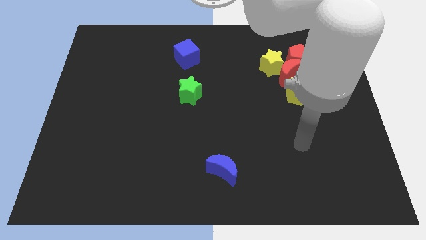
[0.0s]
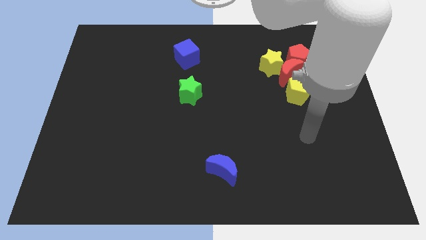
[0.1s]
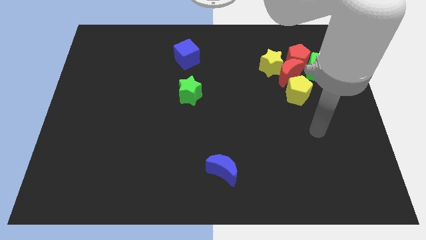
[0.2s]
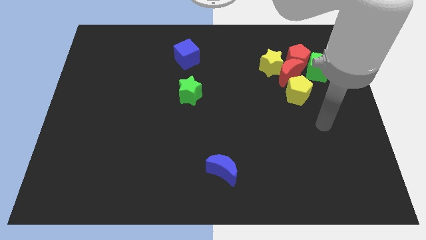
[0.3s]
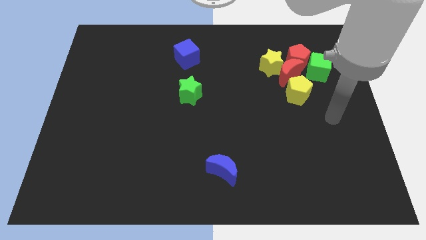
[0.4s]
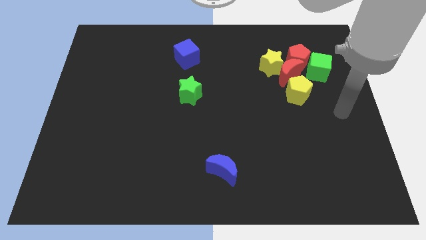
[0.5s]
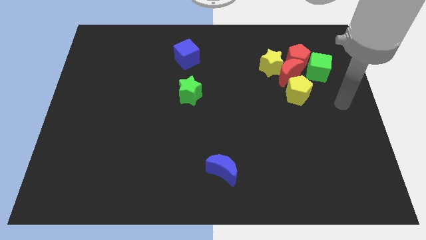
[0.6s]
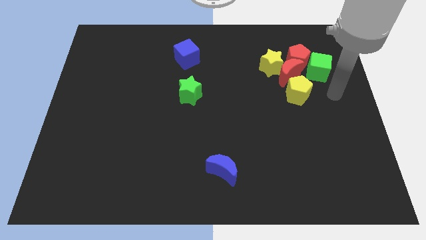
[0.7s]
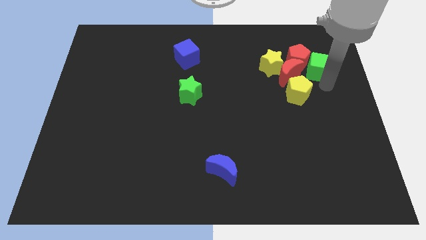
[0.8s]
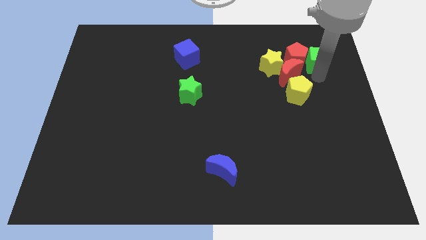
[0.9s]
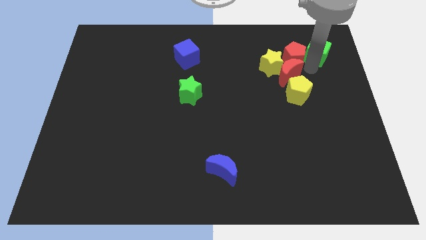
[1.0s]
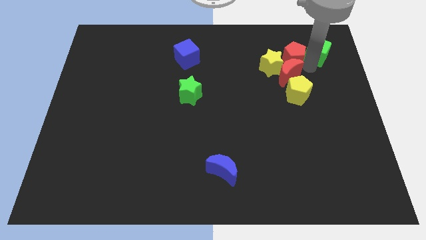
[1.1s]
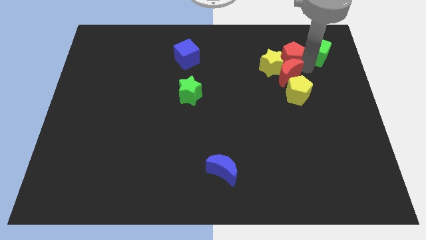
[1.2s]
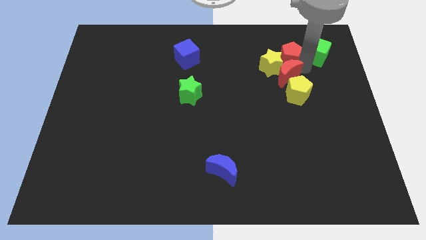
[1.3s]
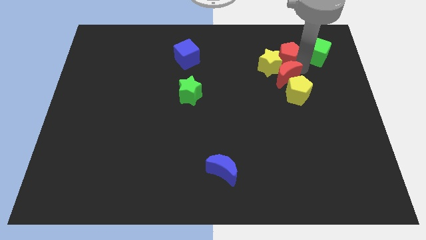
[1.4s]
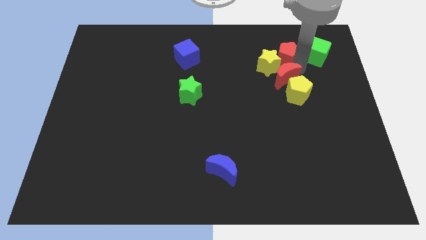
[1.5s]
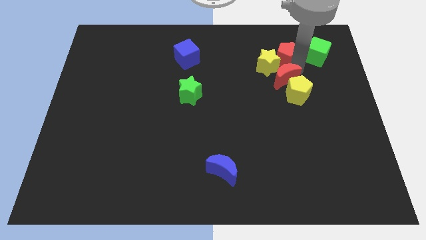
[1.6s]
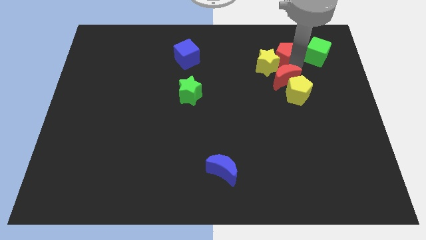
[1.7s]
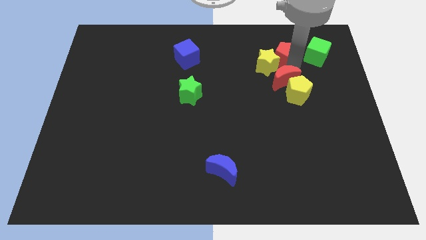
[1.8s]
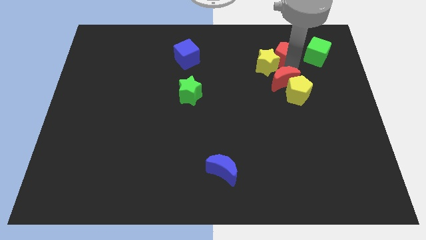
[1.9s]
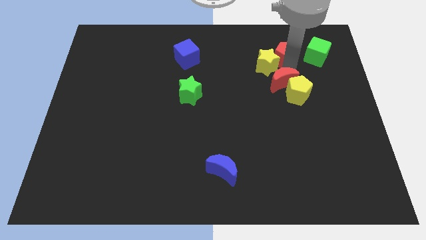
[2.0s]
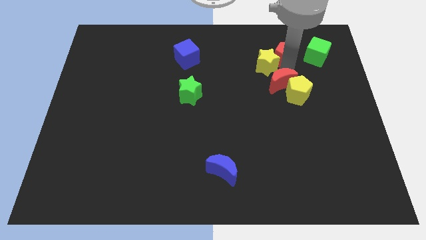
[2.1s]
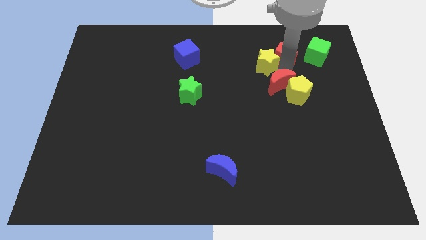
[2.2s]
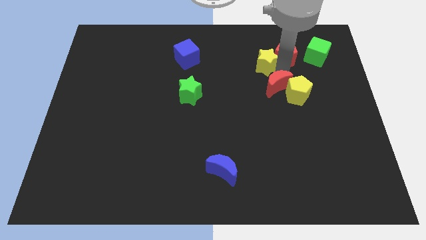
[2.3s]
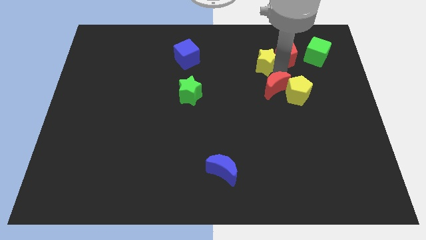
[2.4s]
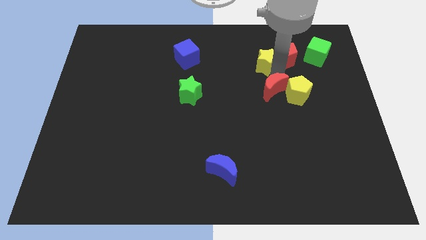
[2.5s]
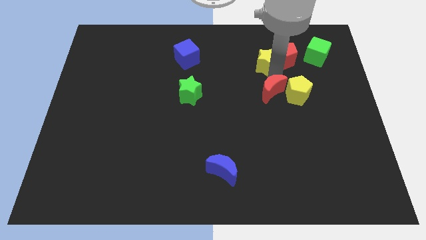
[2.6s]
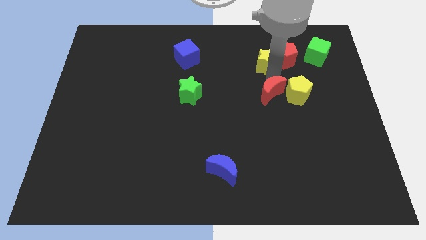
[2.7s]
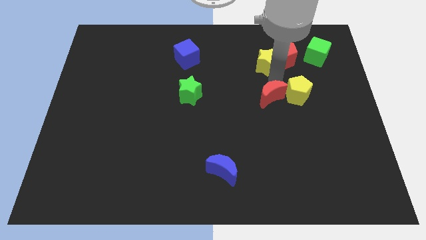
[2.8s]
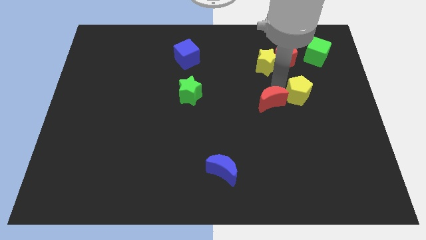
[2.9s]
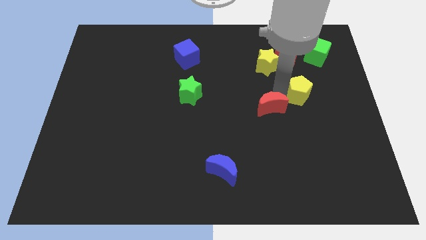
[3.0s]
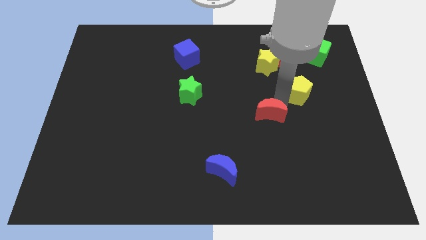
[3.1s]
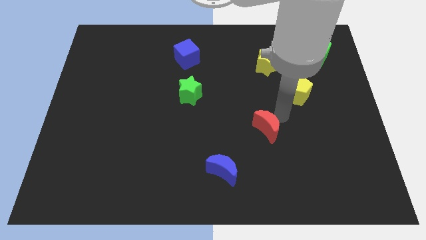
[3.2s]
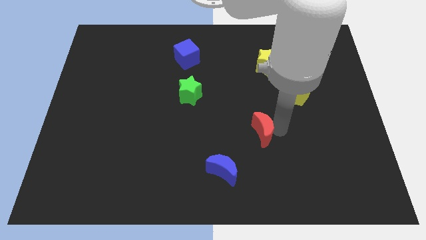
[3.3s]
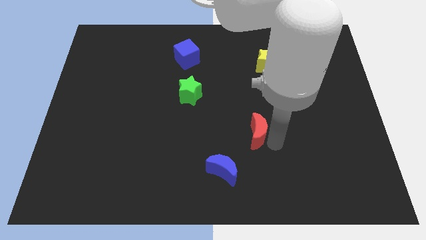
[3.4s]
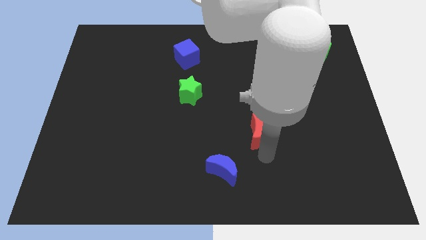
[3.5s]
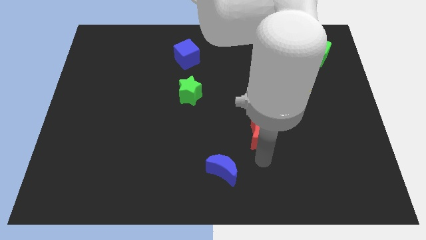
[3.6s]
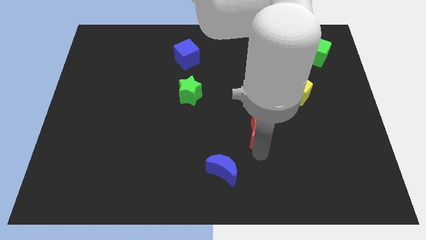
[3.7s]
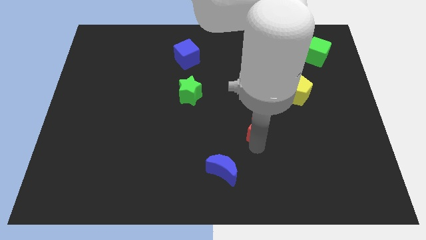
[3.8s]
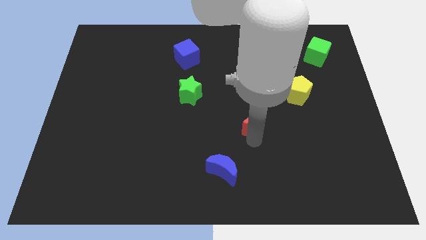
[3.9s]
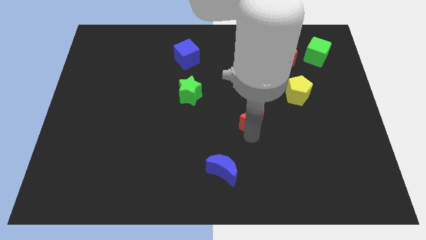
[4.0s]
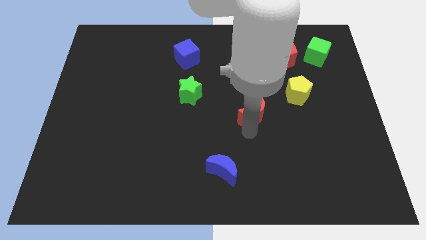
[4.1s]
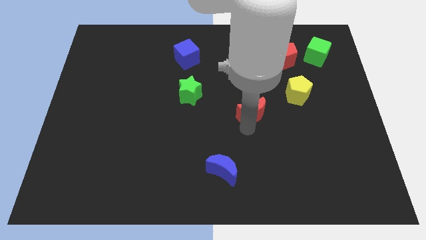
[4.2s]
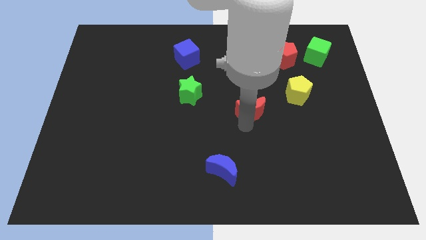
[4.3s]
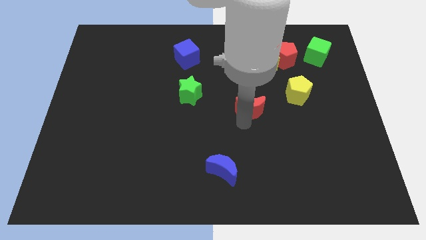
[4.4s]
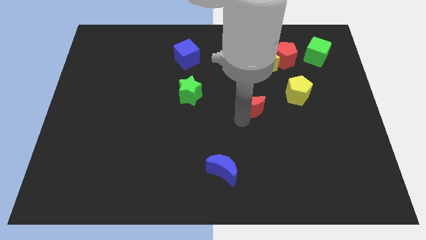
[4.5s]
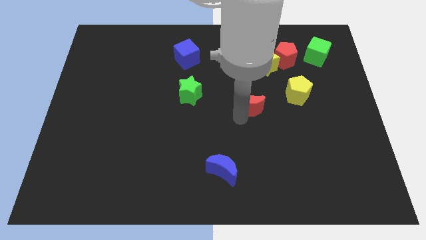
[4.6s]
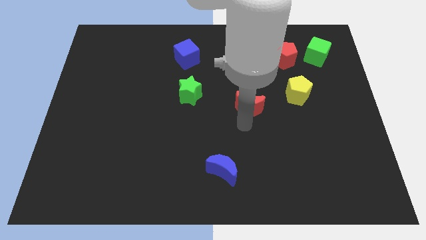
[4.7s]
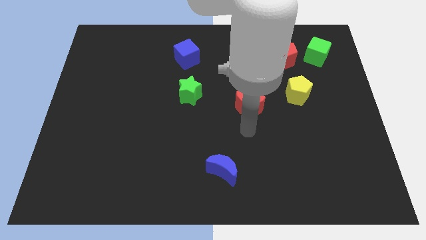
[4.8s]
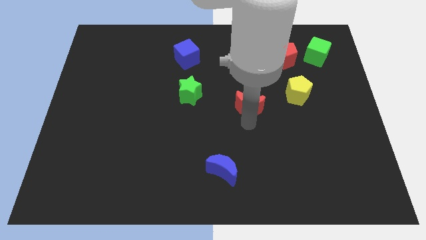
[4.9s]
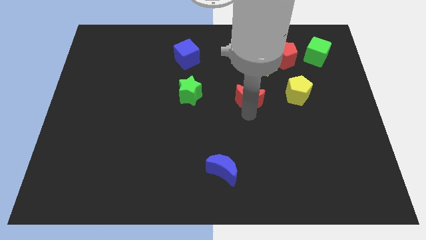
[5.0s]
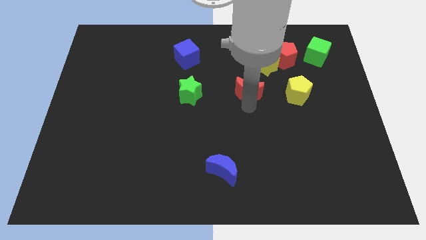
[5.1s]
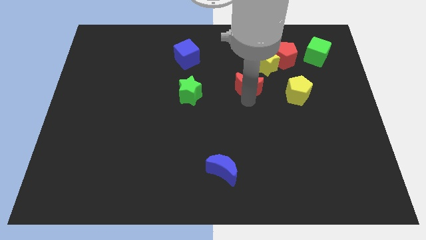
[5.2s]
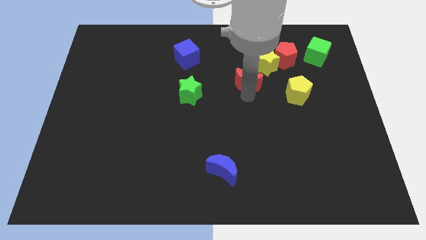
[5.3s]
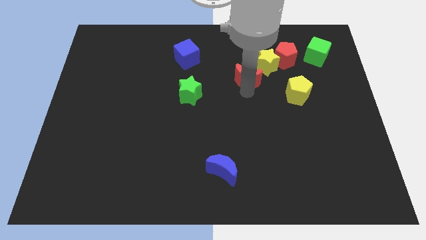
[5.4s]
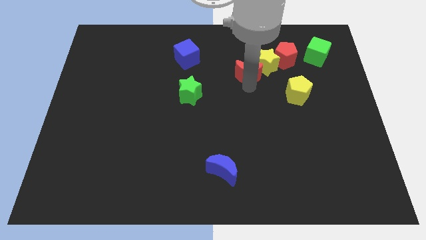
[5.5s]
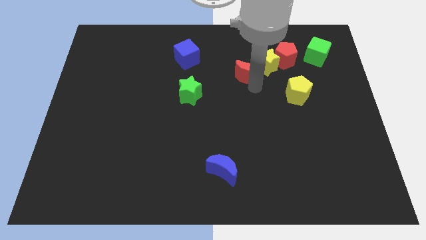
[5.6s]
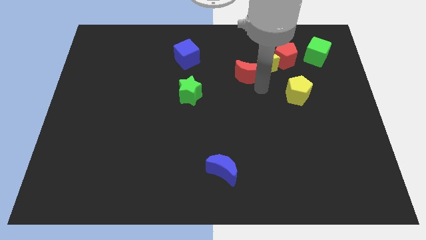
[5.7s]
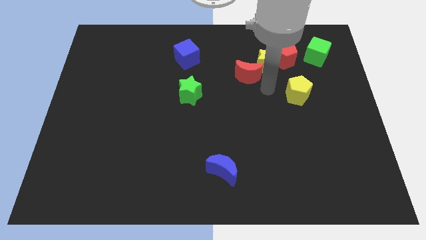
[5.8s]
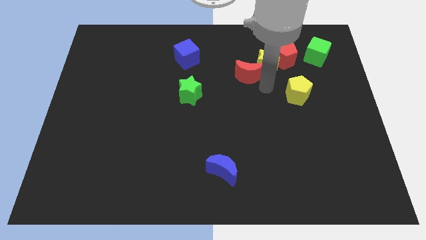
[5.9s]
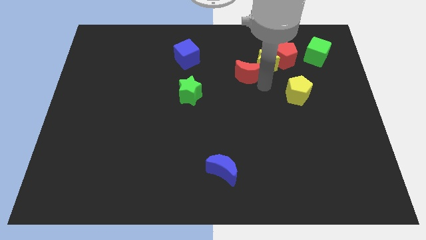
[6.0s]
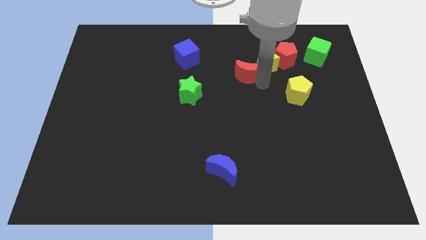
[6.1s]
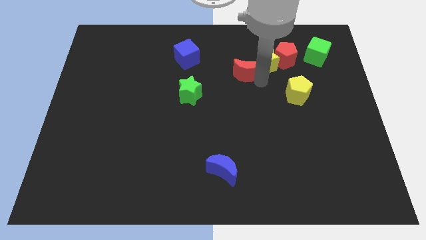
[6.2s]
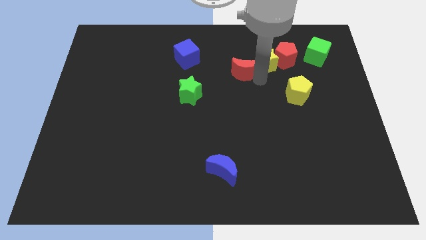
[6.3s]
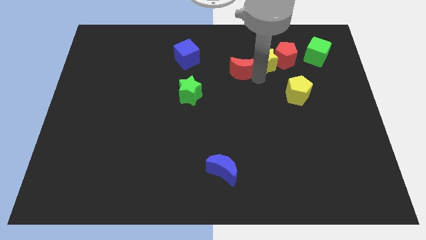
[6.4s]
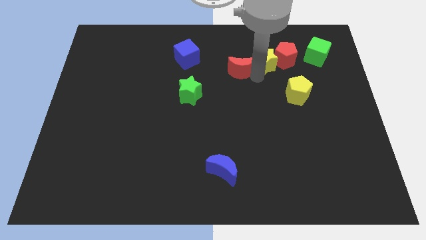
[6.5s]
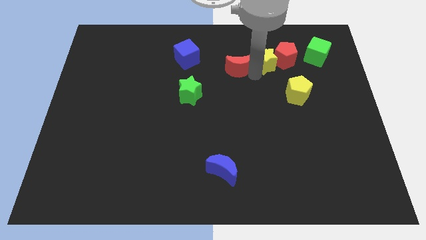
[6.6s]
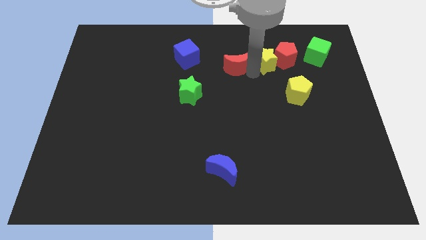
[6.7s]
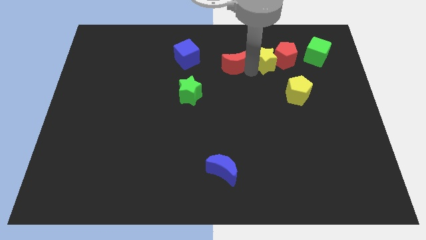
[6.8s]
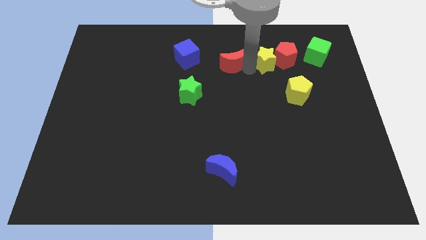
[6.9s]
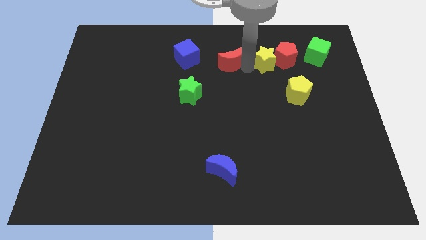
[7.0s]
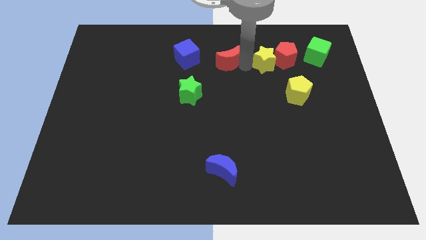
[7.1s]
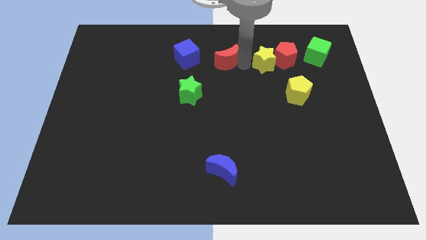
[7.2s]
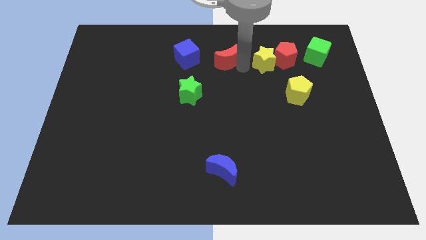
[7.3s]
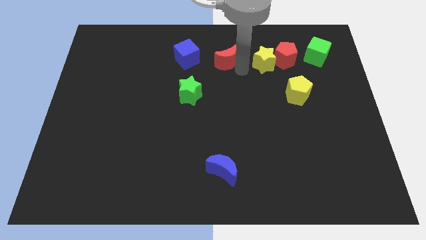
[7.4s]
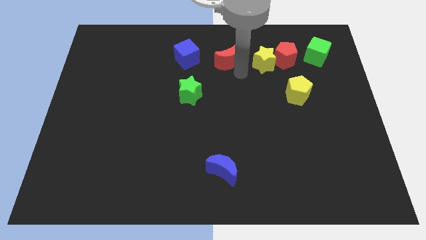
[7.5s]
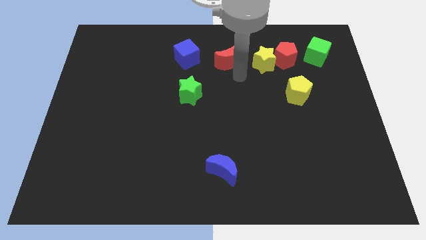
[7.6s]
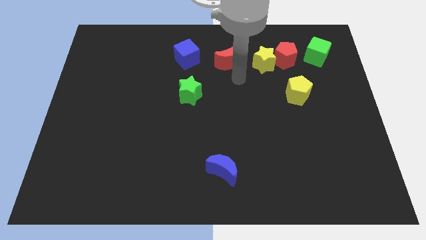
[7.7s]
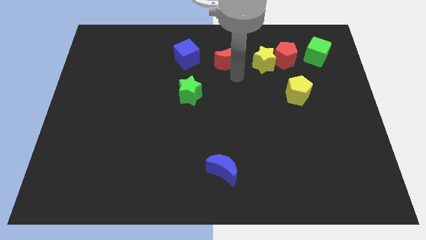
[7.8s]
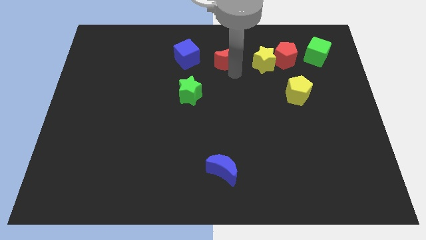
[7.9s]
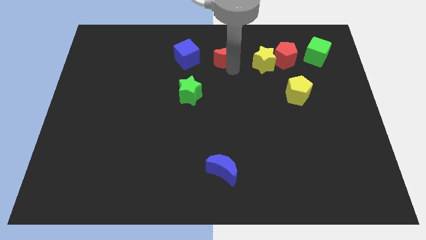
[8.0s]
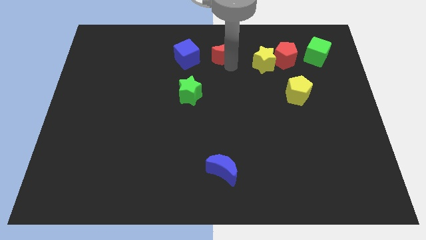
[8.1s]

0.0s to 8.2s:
push the red moon to the towards your base
